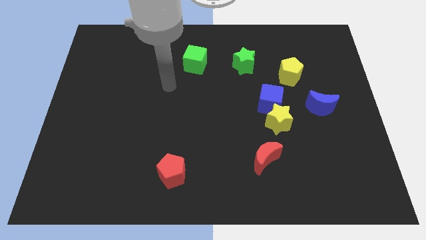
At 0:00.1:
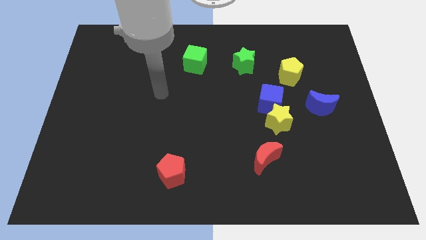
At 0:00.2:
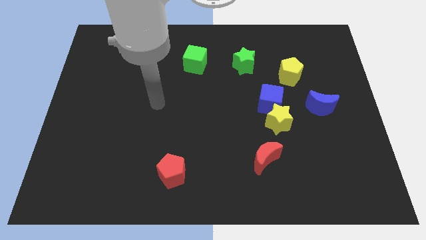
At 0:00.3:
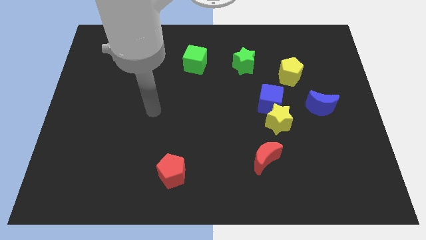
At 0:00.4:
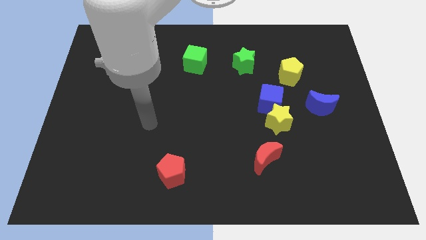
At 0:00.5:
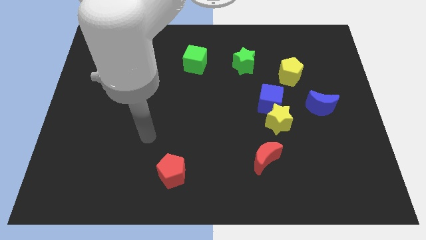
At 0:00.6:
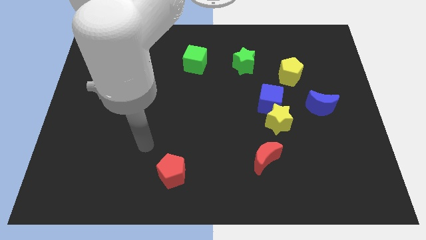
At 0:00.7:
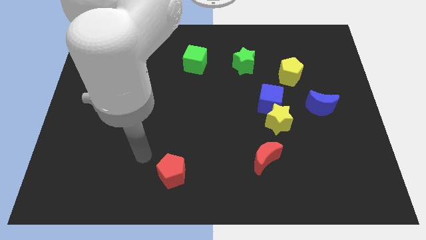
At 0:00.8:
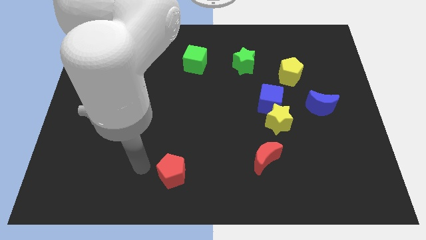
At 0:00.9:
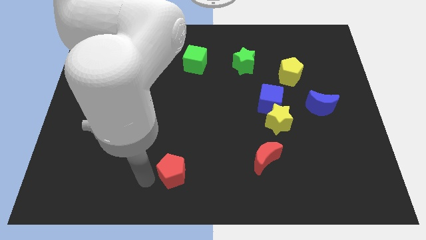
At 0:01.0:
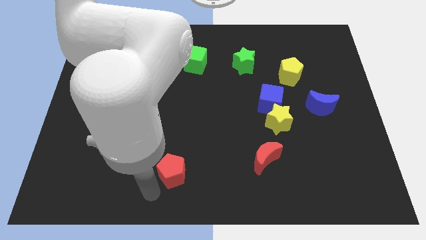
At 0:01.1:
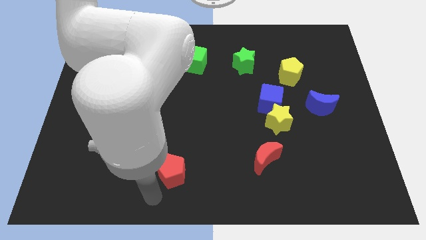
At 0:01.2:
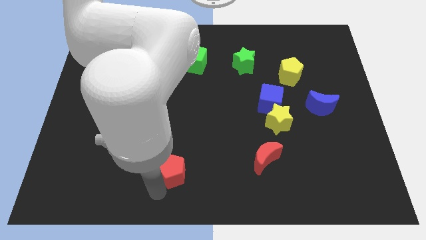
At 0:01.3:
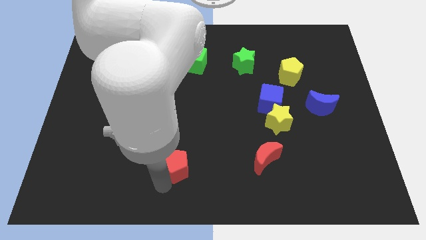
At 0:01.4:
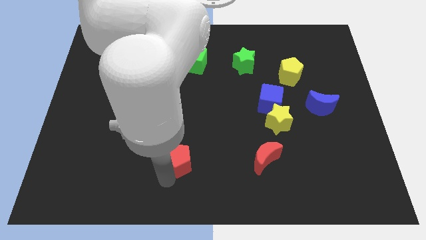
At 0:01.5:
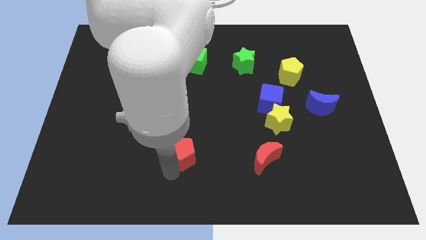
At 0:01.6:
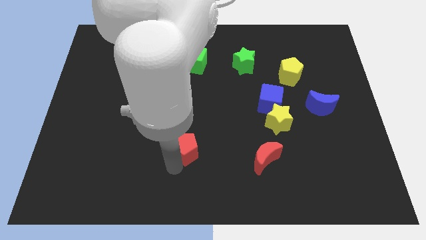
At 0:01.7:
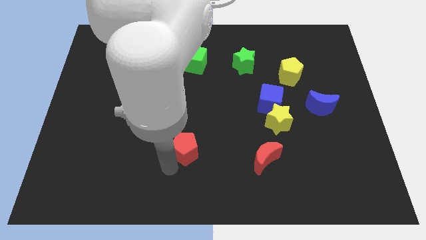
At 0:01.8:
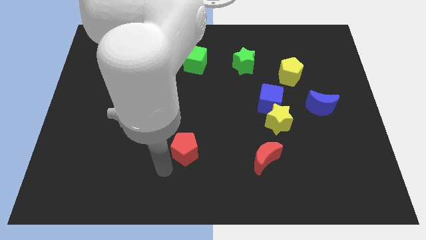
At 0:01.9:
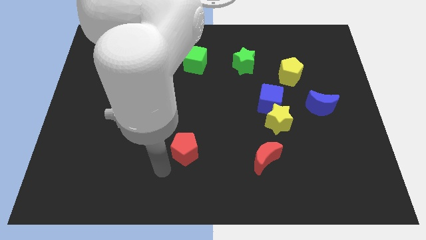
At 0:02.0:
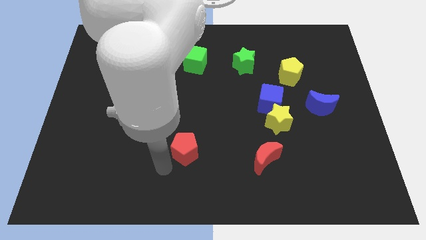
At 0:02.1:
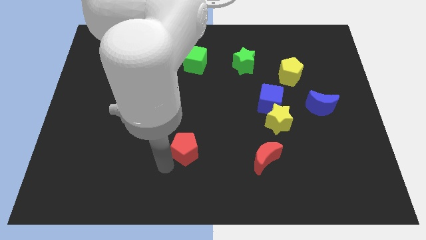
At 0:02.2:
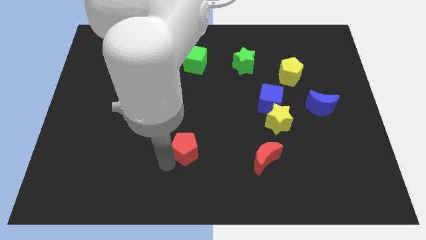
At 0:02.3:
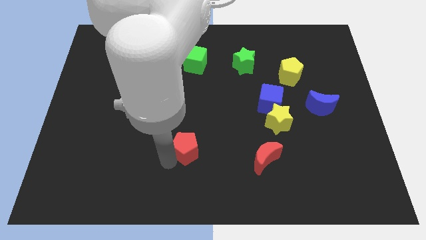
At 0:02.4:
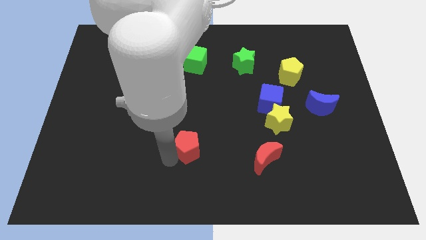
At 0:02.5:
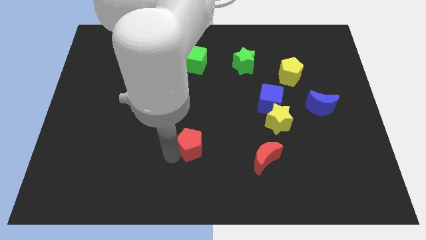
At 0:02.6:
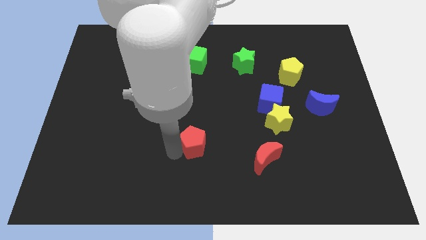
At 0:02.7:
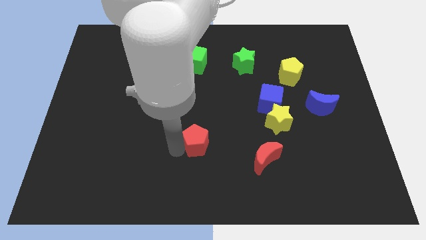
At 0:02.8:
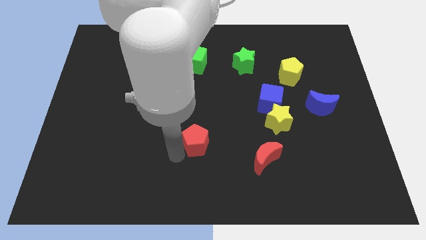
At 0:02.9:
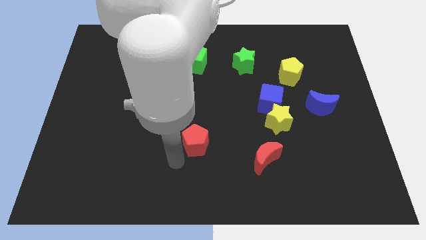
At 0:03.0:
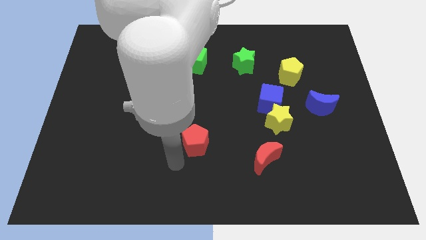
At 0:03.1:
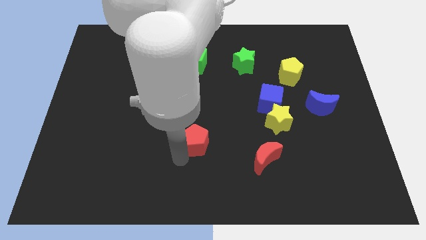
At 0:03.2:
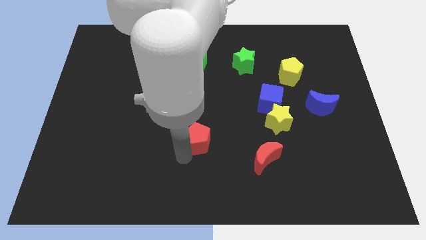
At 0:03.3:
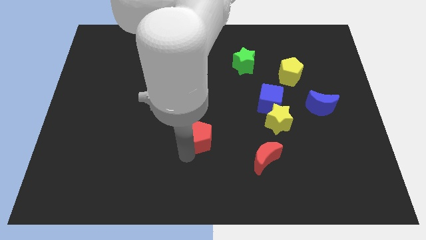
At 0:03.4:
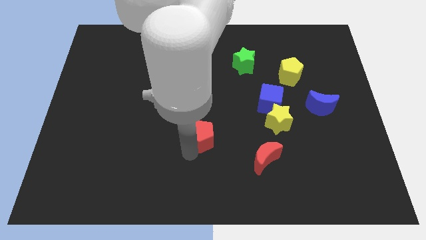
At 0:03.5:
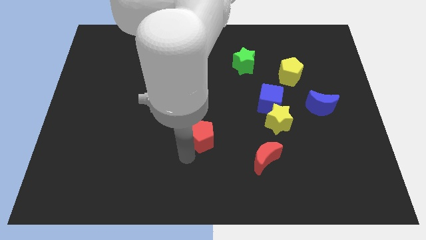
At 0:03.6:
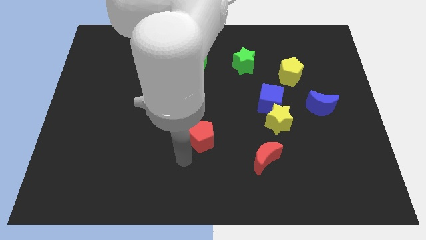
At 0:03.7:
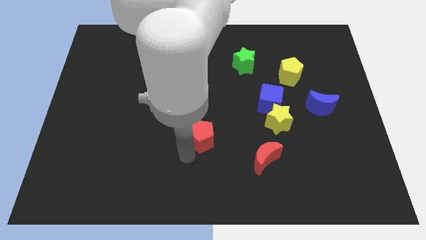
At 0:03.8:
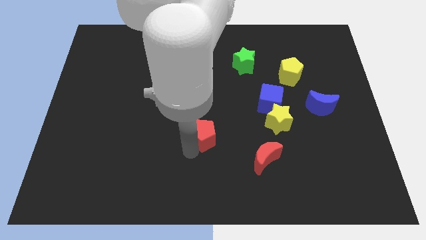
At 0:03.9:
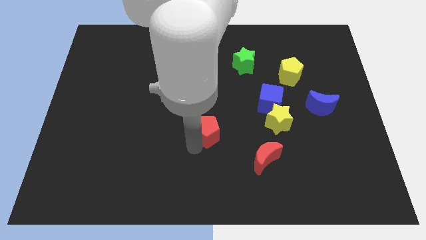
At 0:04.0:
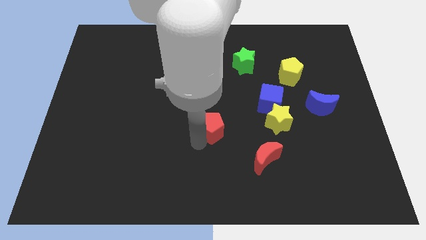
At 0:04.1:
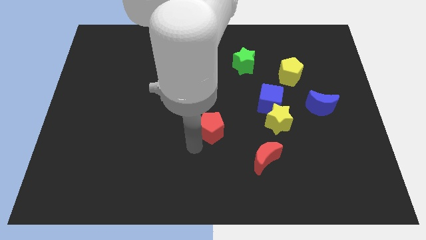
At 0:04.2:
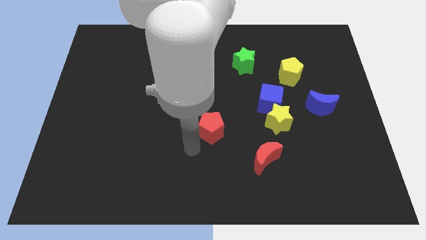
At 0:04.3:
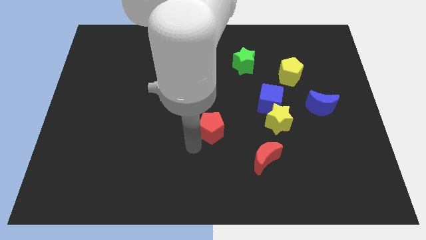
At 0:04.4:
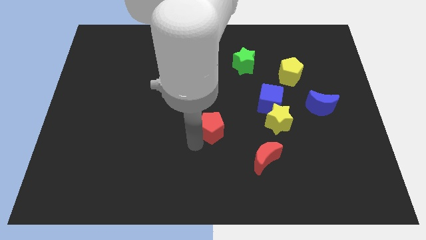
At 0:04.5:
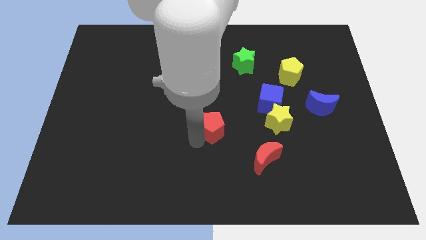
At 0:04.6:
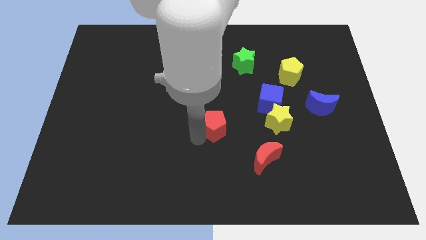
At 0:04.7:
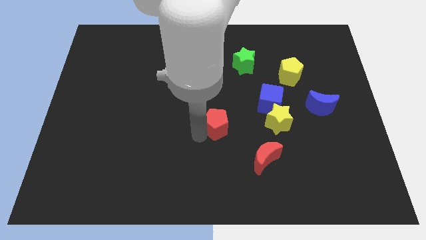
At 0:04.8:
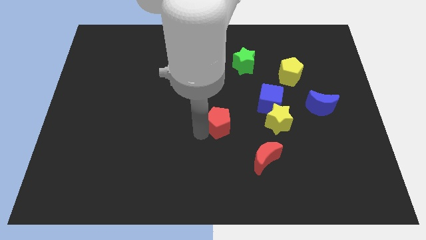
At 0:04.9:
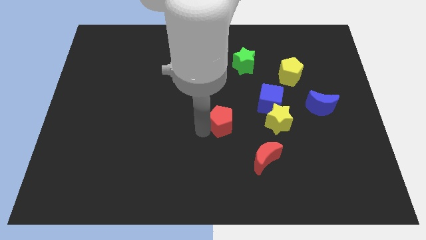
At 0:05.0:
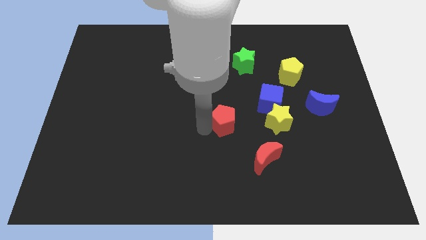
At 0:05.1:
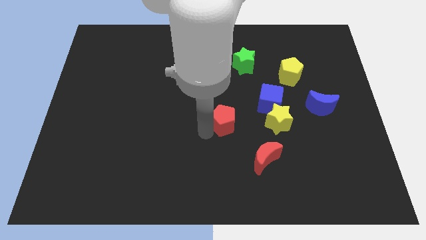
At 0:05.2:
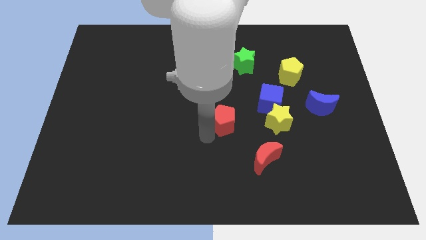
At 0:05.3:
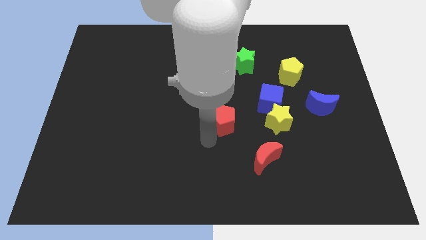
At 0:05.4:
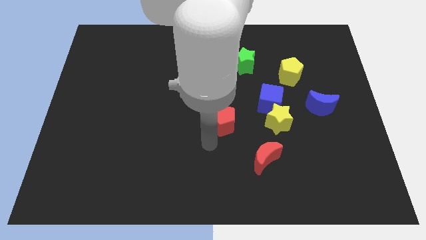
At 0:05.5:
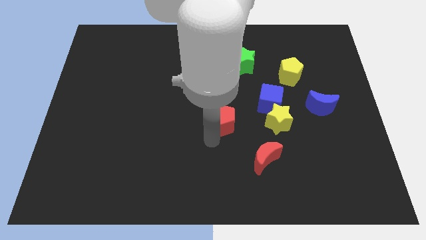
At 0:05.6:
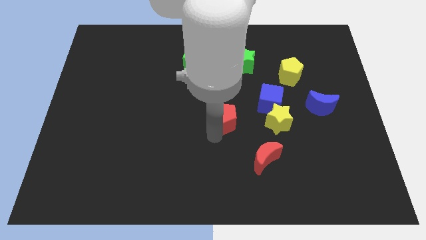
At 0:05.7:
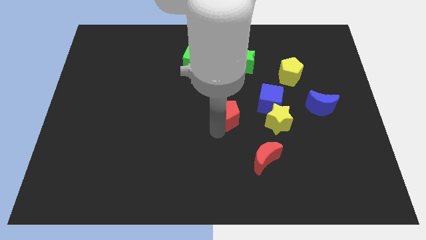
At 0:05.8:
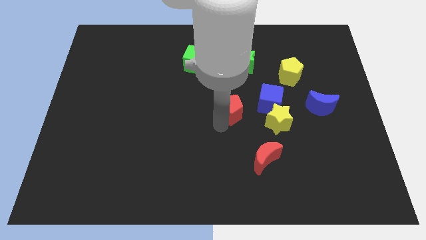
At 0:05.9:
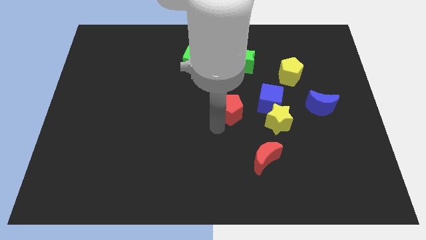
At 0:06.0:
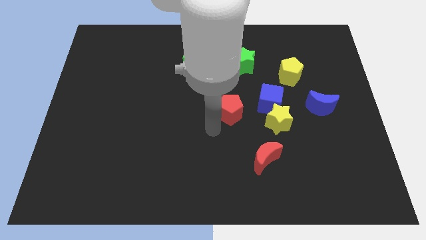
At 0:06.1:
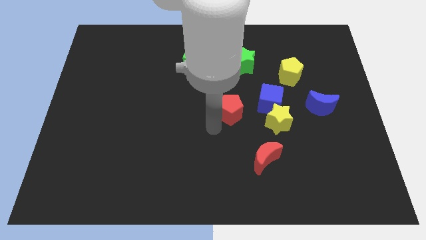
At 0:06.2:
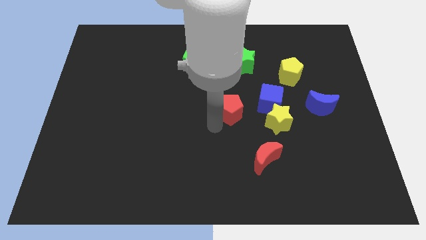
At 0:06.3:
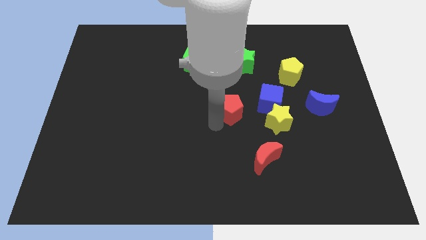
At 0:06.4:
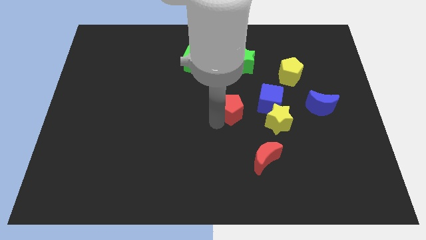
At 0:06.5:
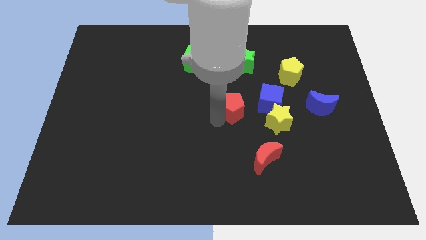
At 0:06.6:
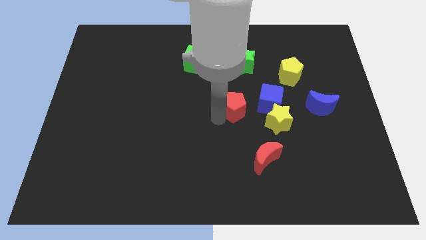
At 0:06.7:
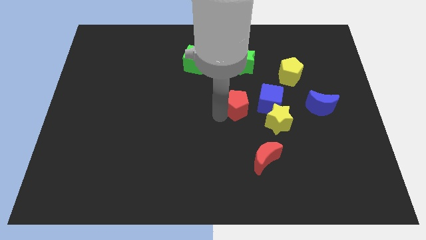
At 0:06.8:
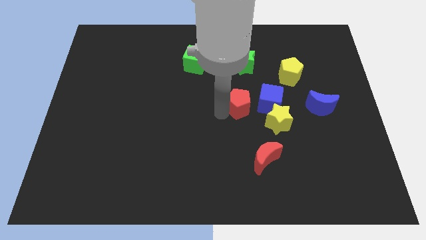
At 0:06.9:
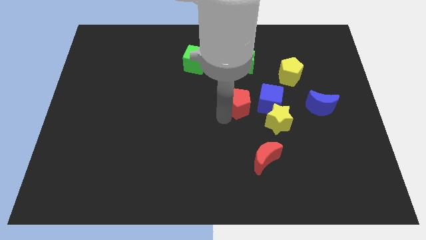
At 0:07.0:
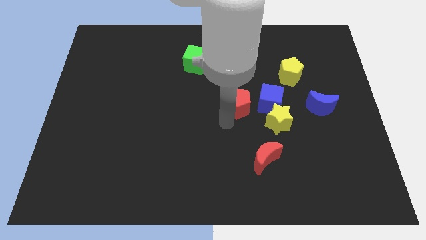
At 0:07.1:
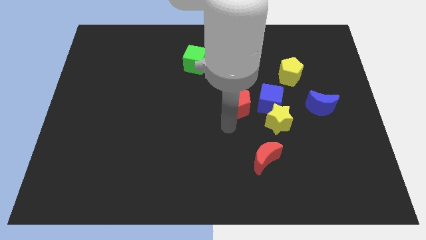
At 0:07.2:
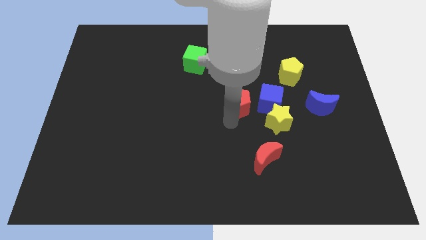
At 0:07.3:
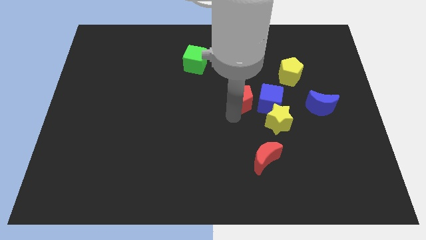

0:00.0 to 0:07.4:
push the red pentagon diagonally up and to the left of the blue cube
